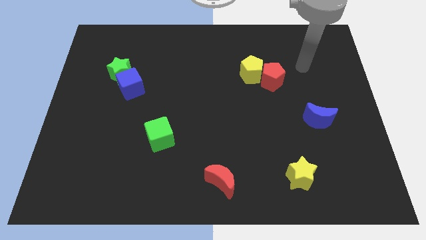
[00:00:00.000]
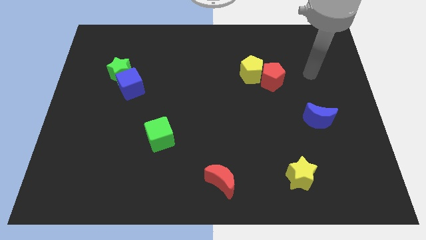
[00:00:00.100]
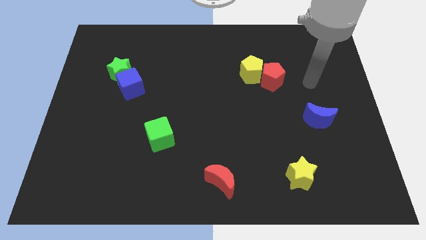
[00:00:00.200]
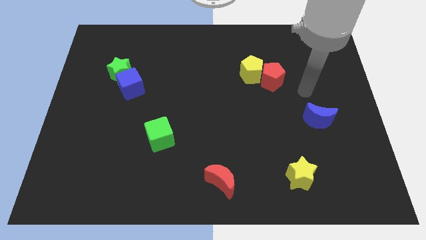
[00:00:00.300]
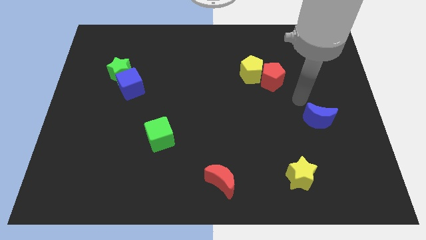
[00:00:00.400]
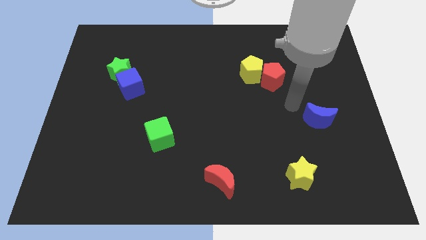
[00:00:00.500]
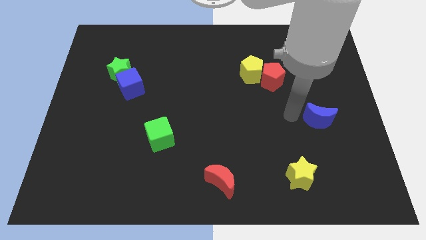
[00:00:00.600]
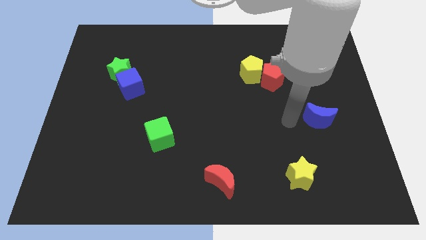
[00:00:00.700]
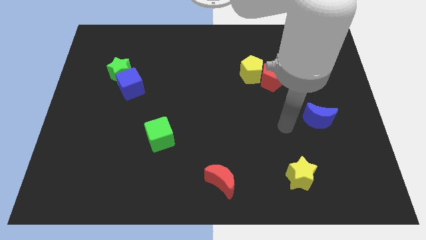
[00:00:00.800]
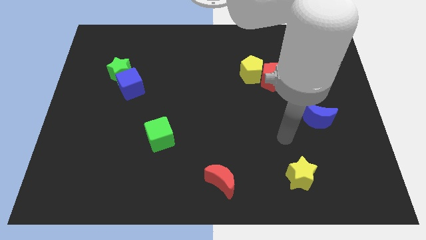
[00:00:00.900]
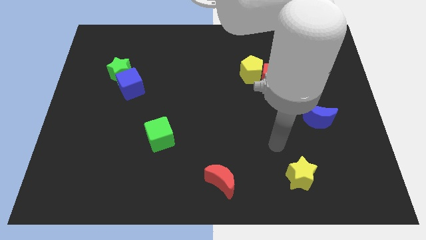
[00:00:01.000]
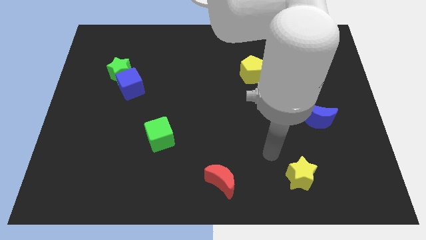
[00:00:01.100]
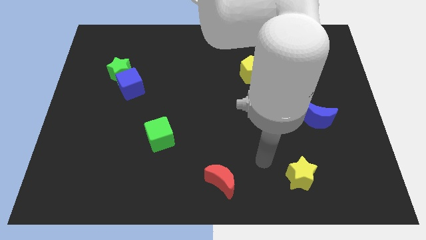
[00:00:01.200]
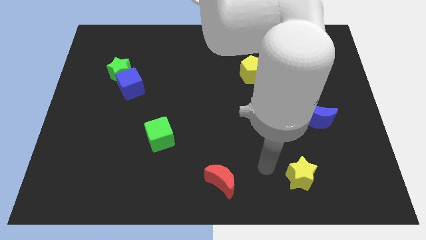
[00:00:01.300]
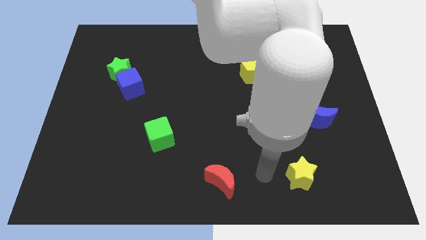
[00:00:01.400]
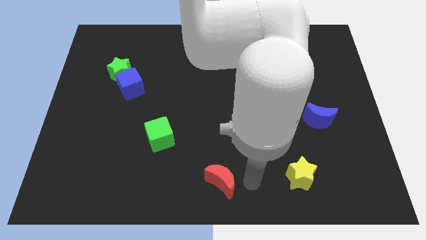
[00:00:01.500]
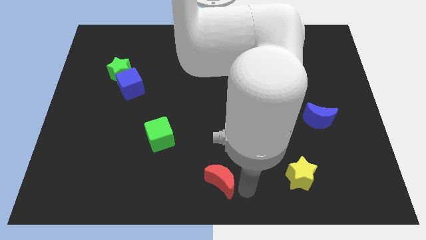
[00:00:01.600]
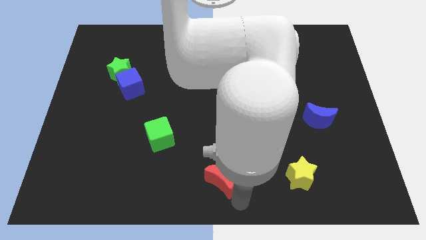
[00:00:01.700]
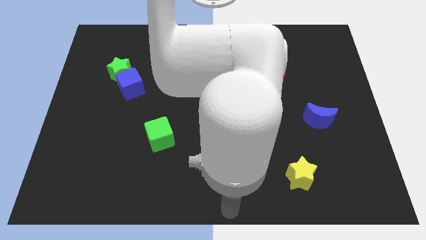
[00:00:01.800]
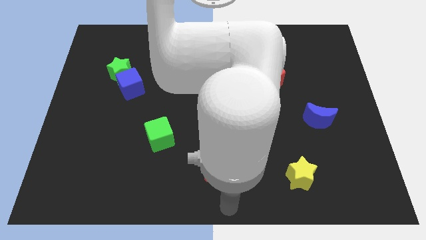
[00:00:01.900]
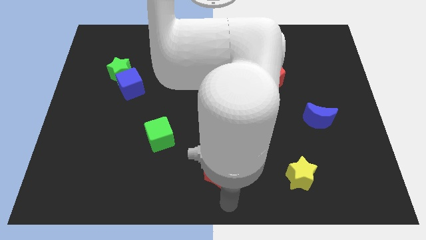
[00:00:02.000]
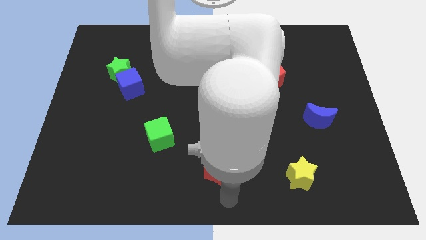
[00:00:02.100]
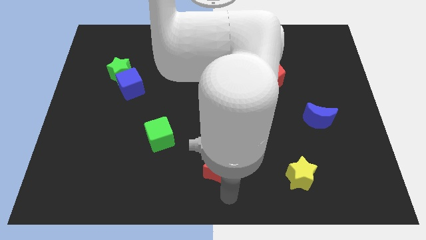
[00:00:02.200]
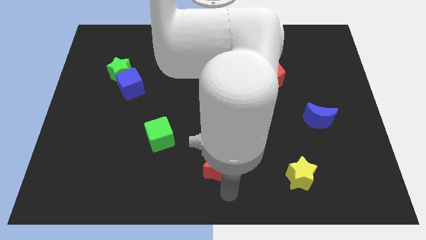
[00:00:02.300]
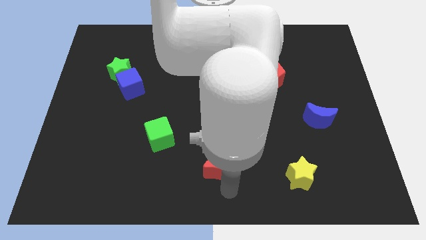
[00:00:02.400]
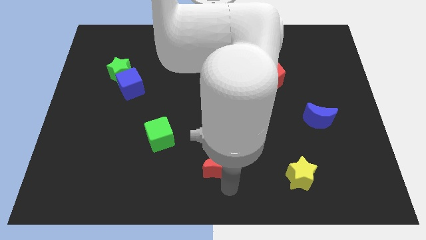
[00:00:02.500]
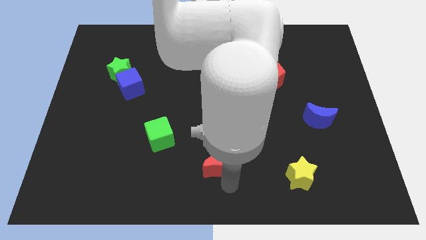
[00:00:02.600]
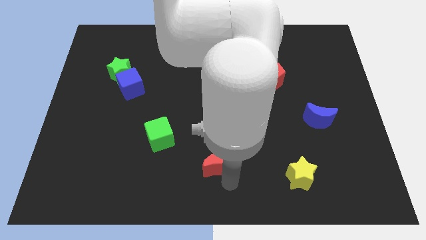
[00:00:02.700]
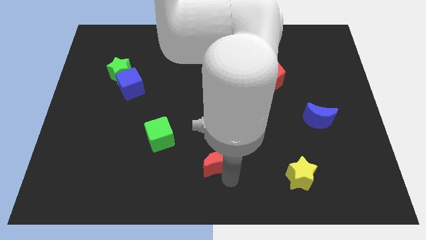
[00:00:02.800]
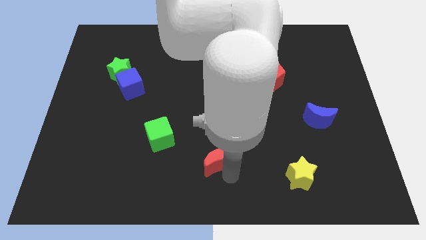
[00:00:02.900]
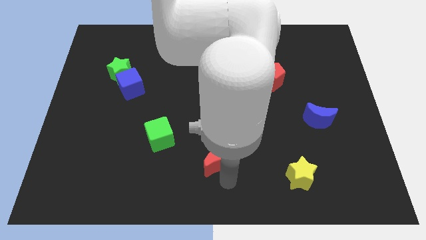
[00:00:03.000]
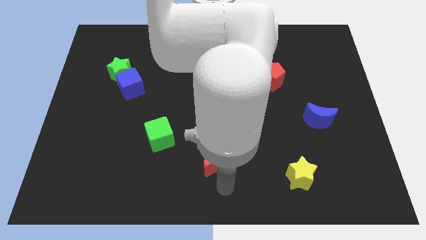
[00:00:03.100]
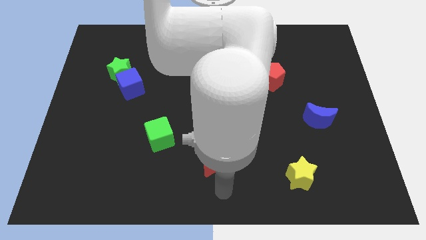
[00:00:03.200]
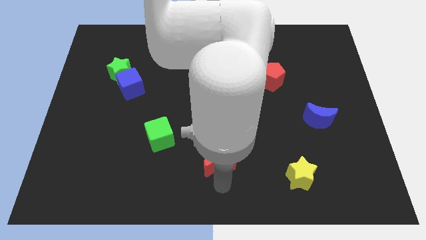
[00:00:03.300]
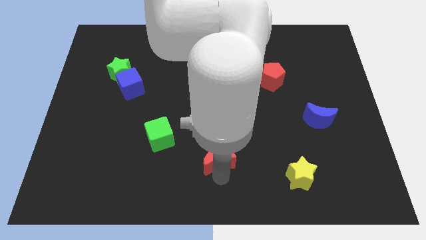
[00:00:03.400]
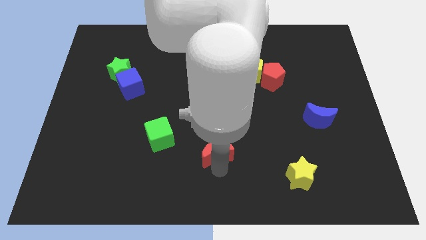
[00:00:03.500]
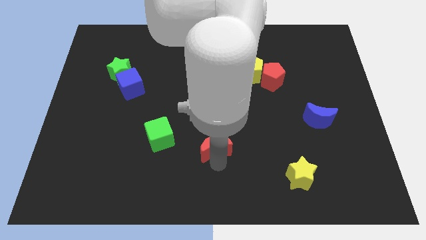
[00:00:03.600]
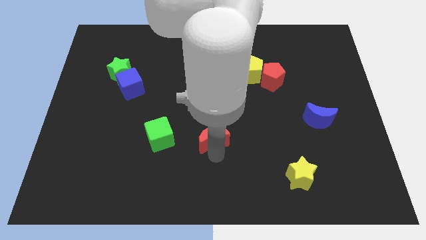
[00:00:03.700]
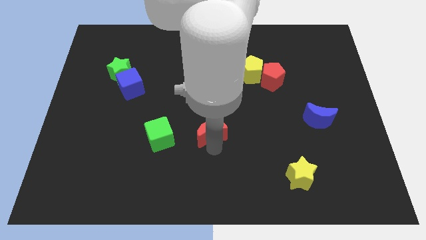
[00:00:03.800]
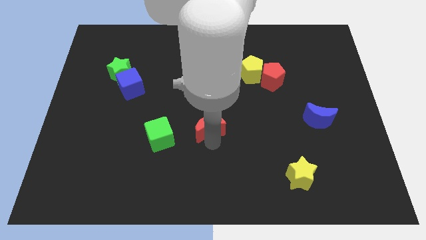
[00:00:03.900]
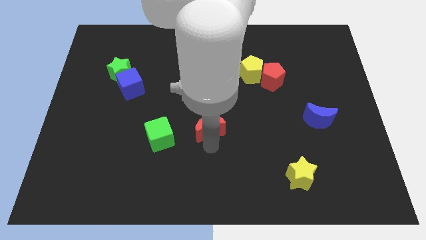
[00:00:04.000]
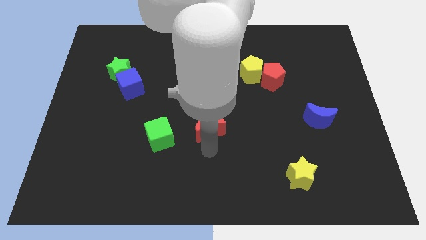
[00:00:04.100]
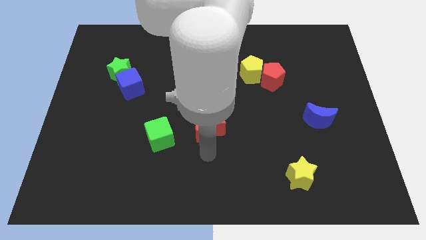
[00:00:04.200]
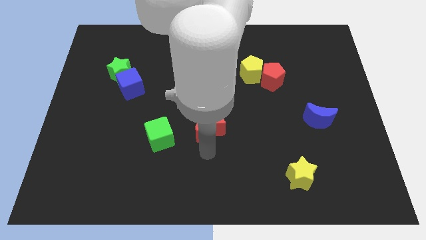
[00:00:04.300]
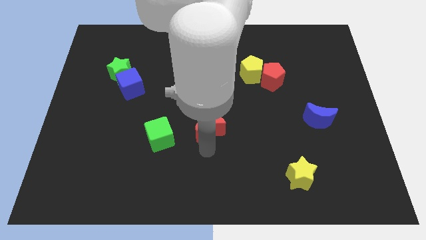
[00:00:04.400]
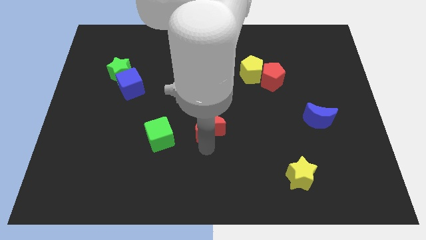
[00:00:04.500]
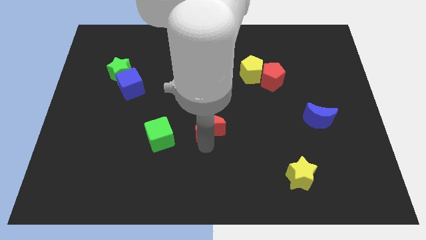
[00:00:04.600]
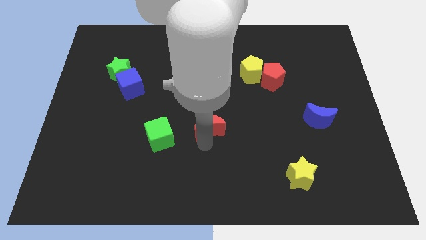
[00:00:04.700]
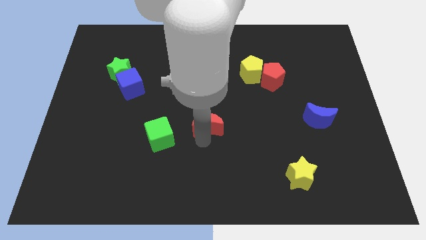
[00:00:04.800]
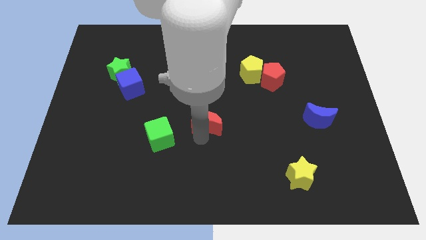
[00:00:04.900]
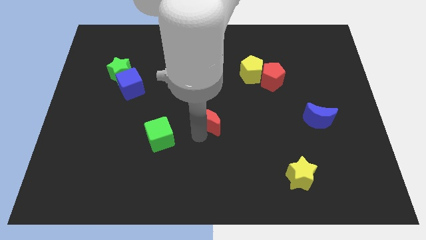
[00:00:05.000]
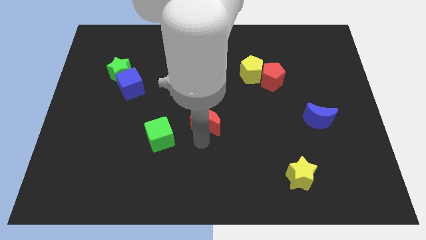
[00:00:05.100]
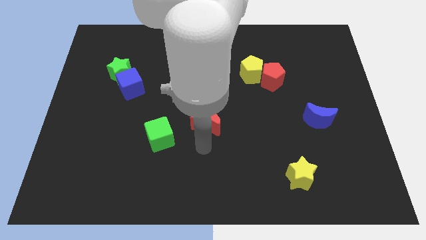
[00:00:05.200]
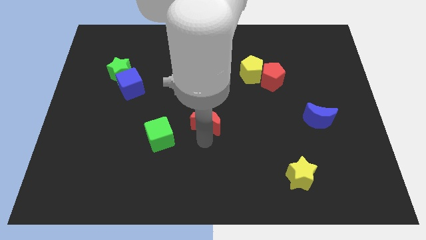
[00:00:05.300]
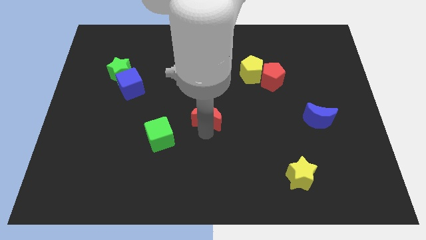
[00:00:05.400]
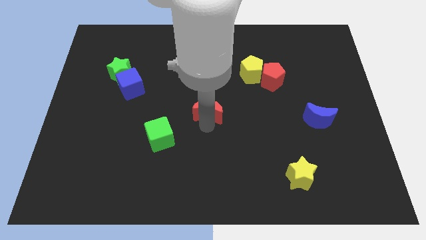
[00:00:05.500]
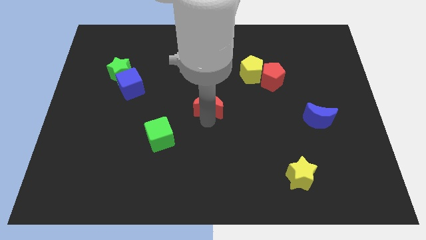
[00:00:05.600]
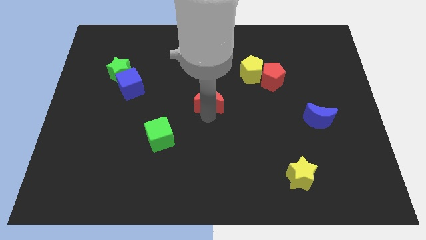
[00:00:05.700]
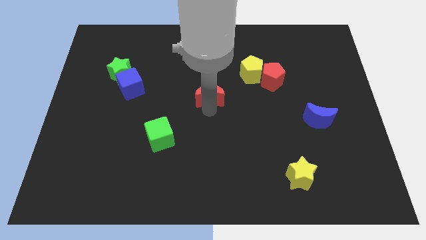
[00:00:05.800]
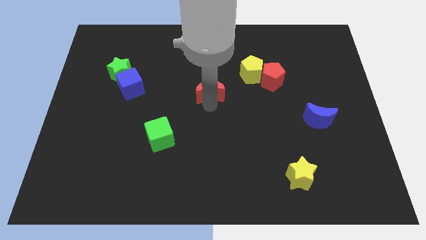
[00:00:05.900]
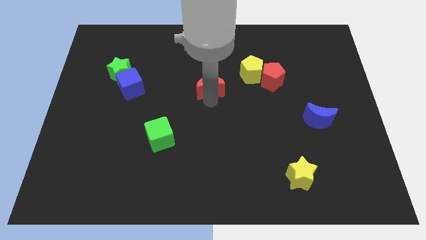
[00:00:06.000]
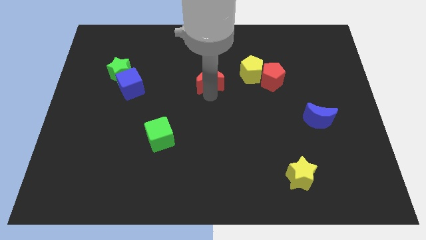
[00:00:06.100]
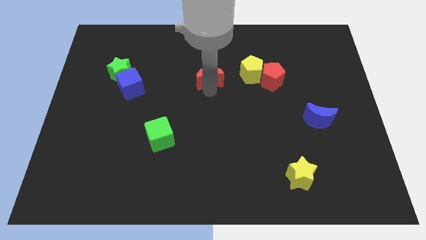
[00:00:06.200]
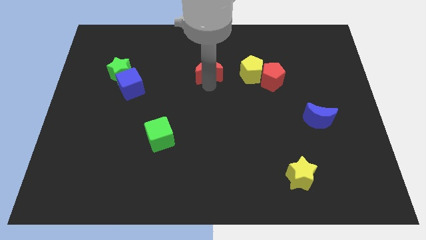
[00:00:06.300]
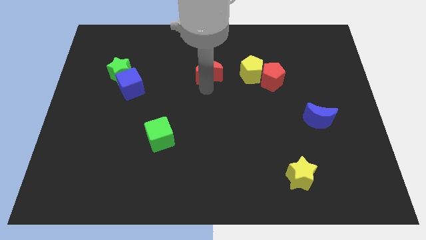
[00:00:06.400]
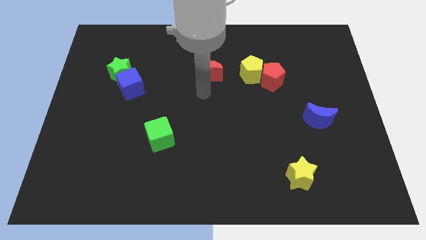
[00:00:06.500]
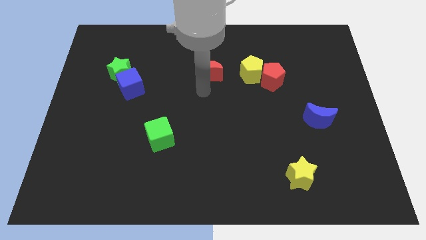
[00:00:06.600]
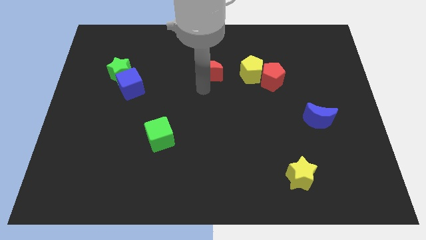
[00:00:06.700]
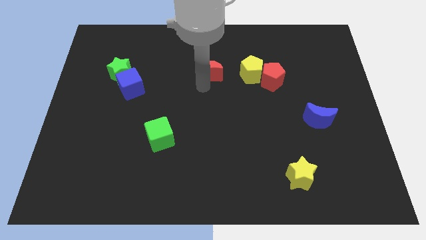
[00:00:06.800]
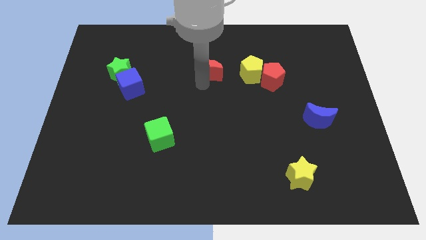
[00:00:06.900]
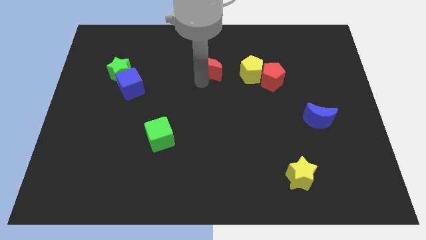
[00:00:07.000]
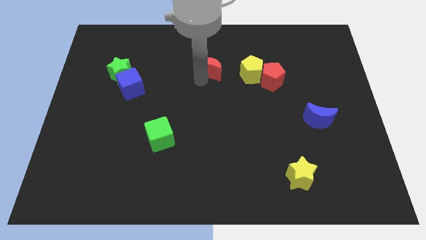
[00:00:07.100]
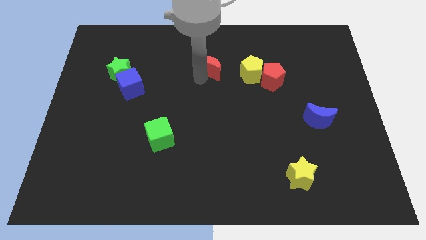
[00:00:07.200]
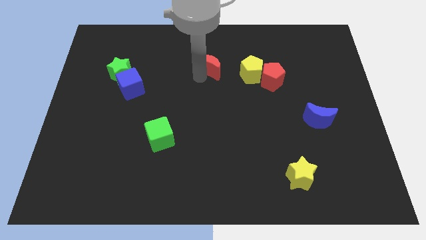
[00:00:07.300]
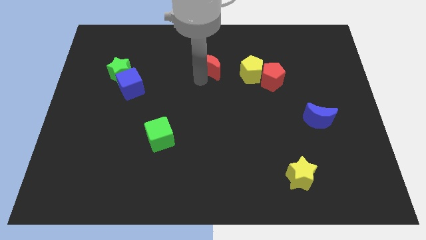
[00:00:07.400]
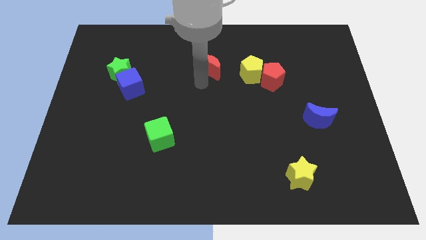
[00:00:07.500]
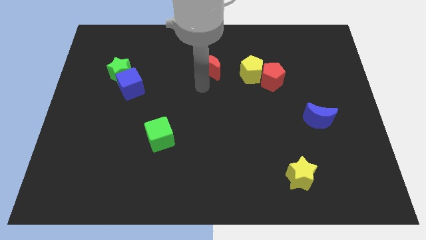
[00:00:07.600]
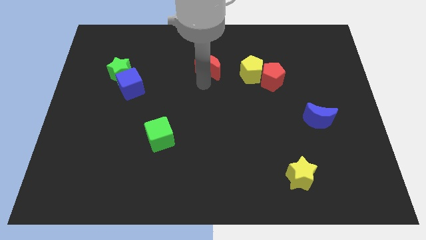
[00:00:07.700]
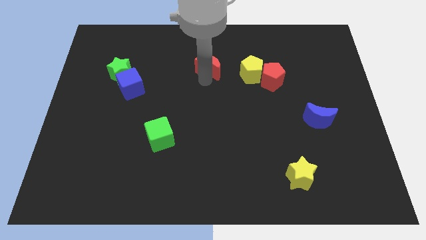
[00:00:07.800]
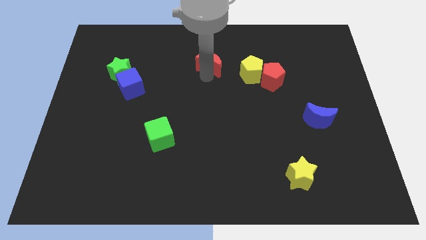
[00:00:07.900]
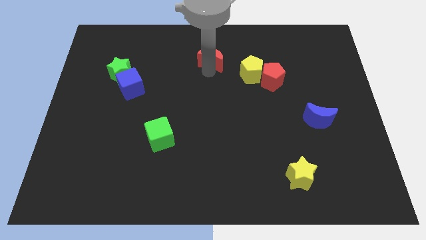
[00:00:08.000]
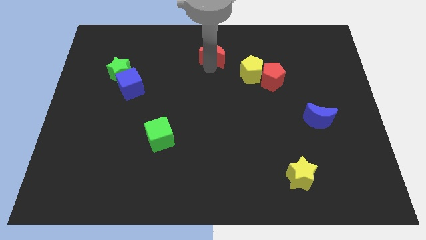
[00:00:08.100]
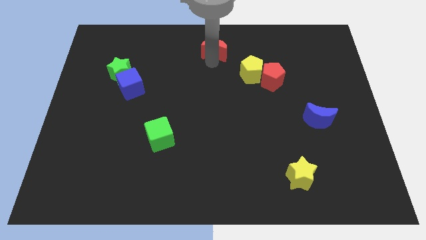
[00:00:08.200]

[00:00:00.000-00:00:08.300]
move the red moon to the top side
